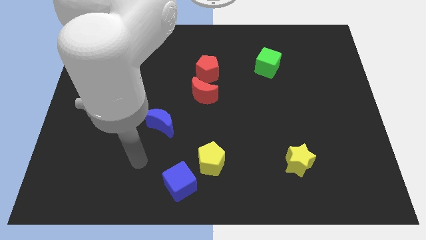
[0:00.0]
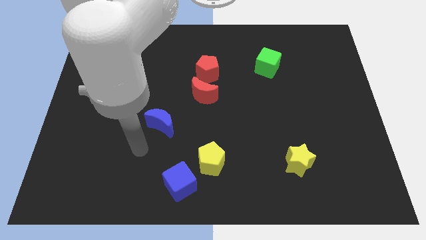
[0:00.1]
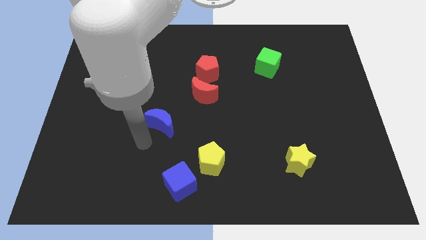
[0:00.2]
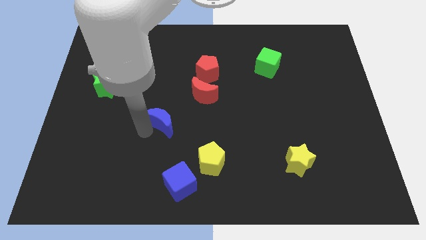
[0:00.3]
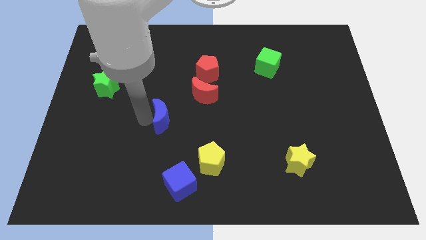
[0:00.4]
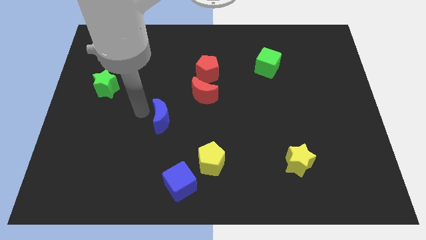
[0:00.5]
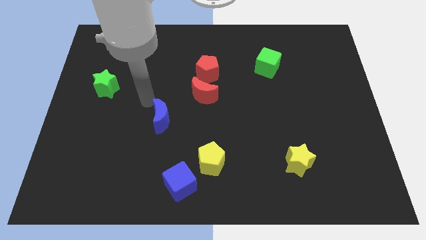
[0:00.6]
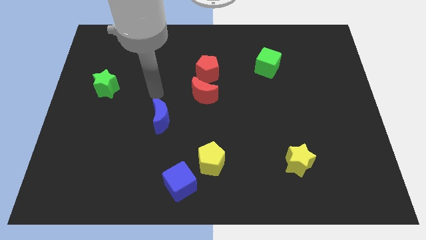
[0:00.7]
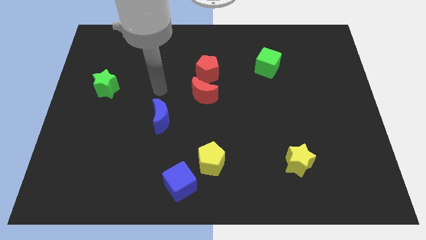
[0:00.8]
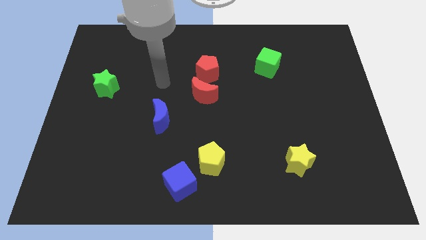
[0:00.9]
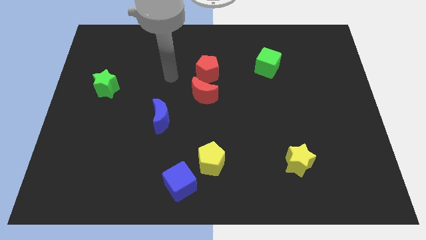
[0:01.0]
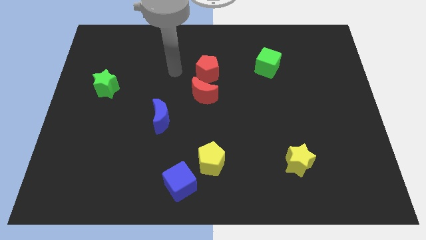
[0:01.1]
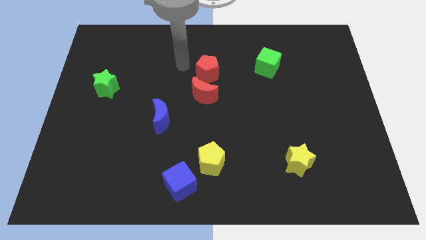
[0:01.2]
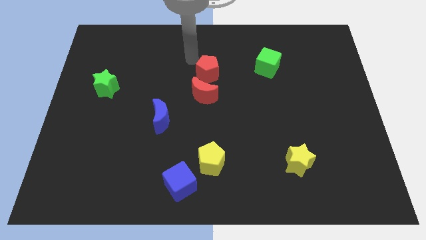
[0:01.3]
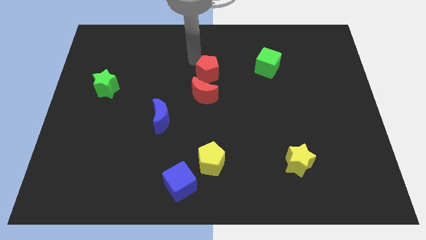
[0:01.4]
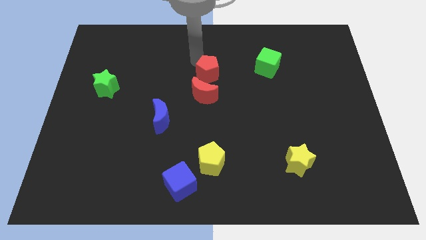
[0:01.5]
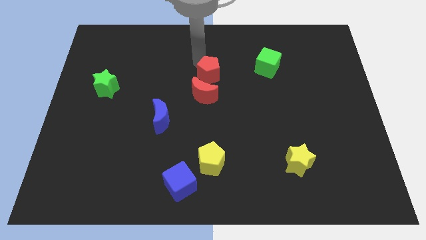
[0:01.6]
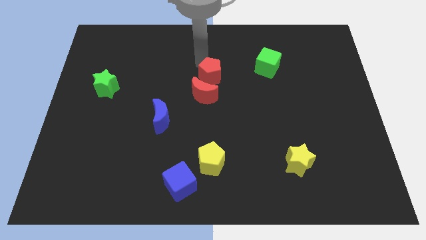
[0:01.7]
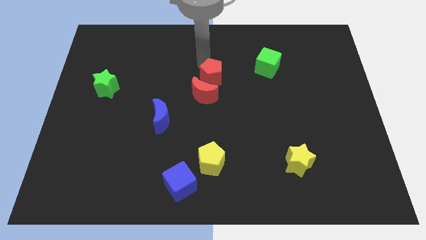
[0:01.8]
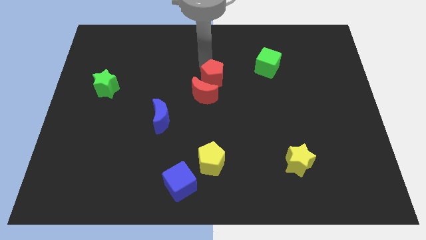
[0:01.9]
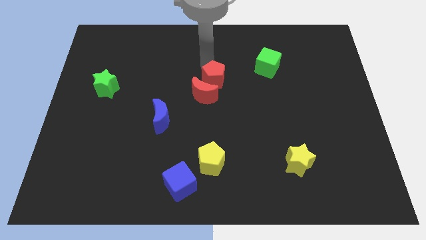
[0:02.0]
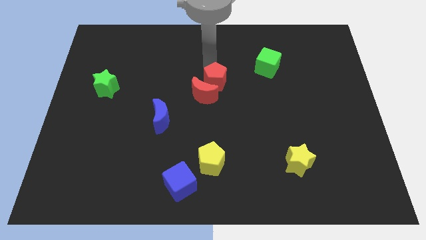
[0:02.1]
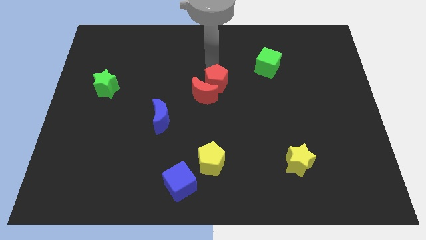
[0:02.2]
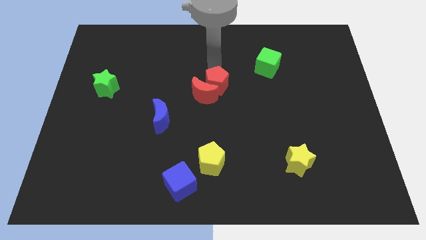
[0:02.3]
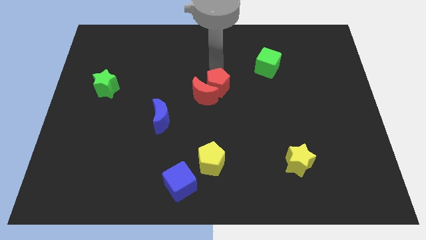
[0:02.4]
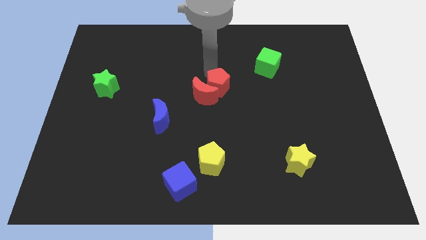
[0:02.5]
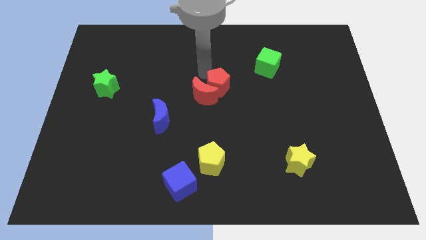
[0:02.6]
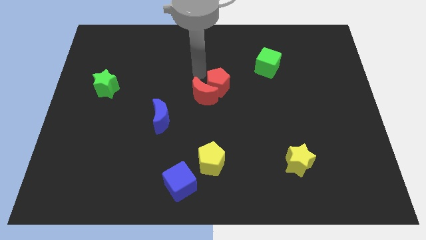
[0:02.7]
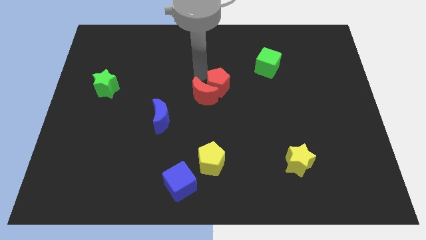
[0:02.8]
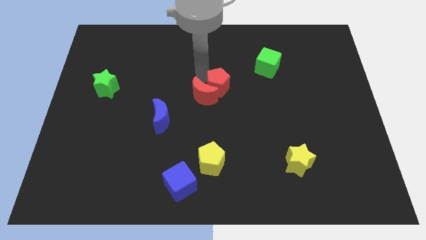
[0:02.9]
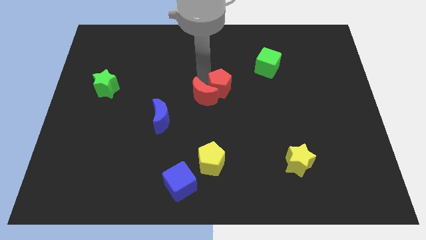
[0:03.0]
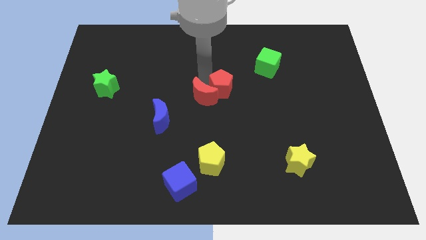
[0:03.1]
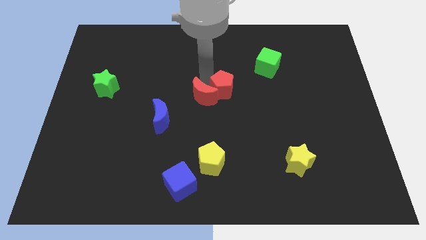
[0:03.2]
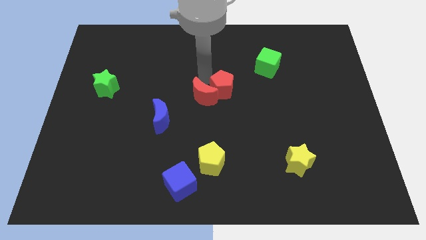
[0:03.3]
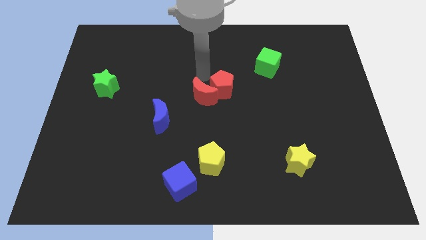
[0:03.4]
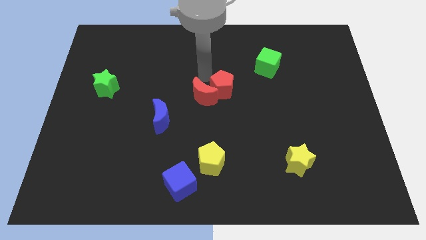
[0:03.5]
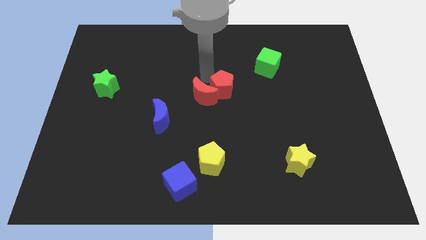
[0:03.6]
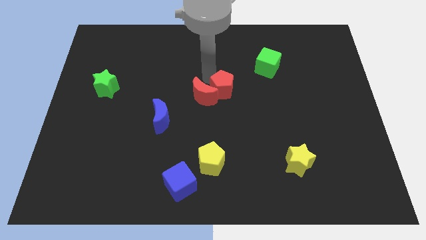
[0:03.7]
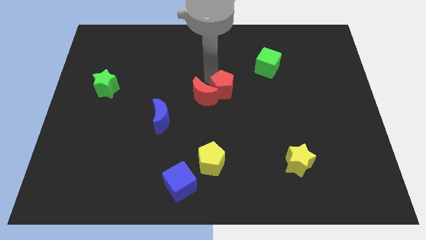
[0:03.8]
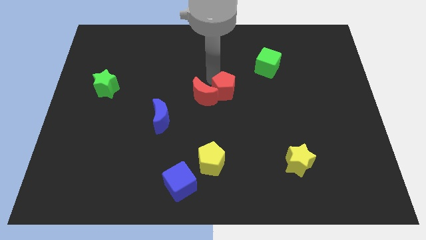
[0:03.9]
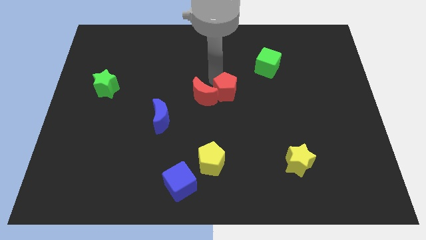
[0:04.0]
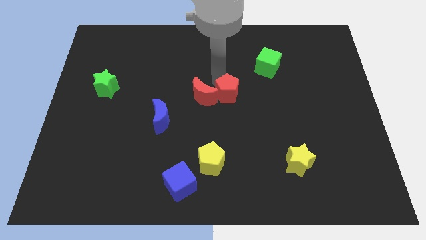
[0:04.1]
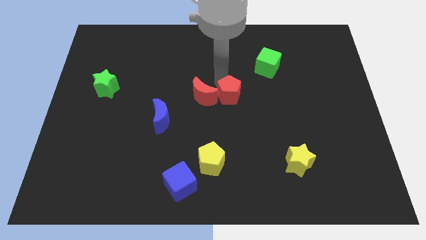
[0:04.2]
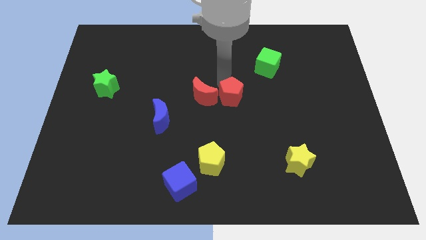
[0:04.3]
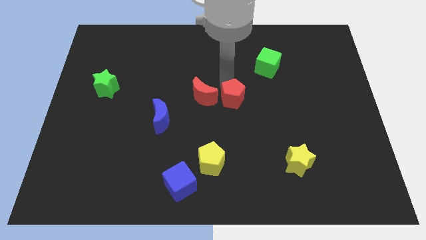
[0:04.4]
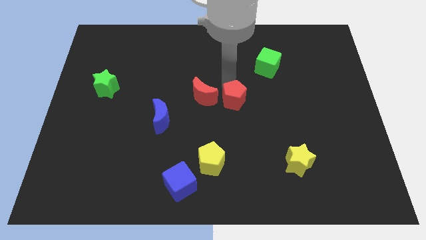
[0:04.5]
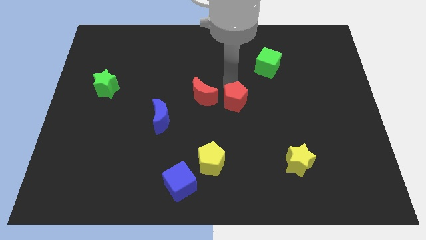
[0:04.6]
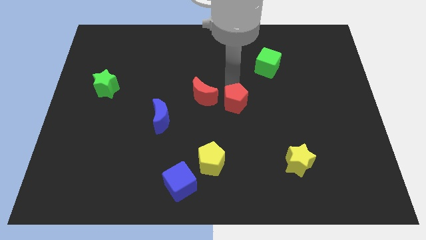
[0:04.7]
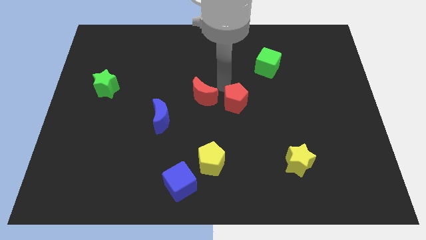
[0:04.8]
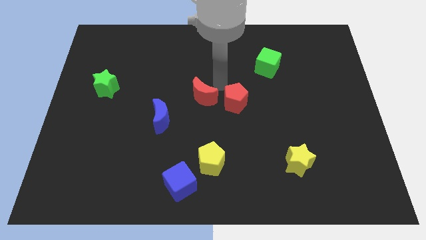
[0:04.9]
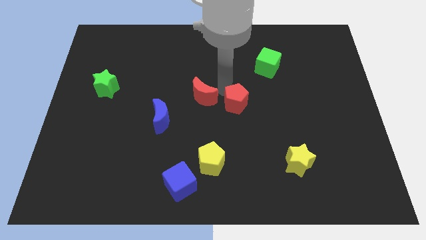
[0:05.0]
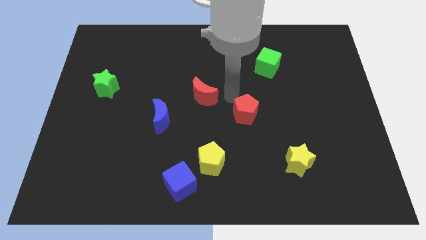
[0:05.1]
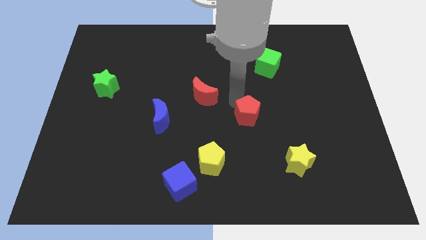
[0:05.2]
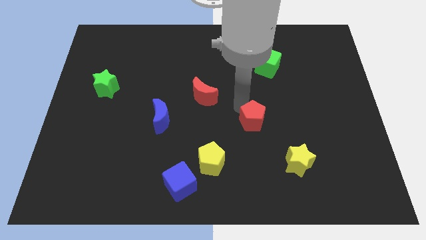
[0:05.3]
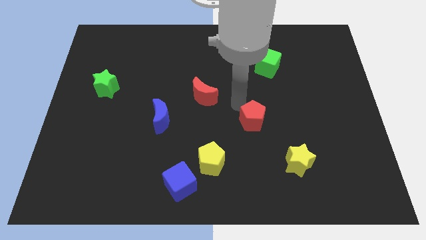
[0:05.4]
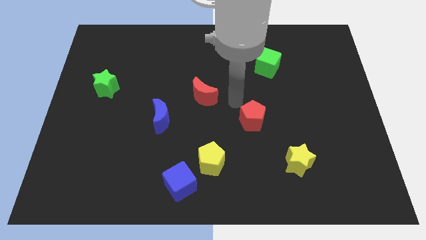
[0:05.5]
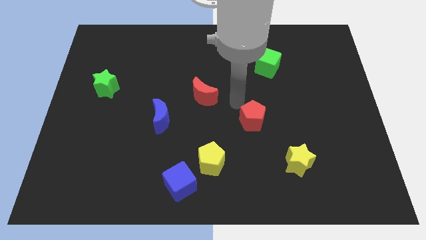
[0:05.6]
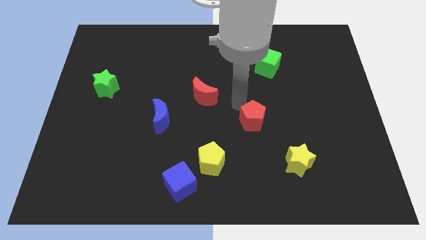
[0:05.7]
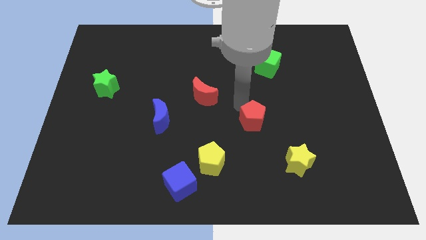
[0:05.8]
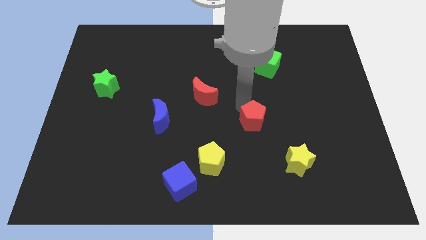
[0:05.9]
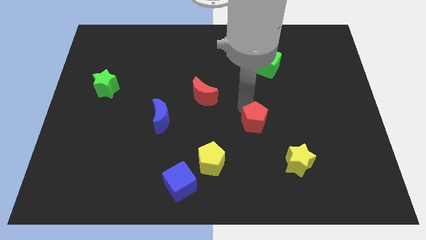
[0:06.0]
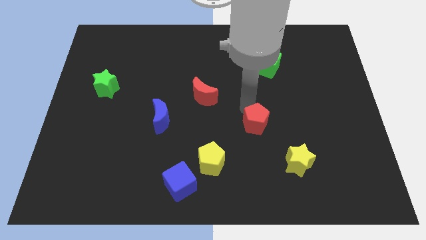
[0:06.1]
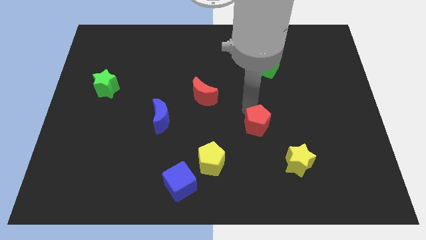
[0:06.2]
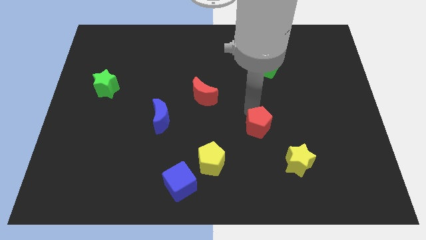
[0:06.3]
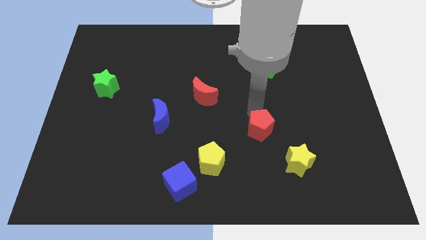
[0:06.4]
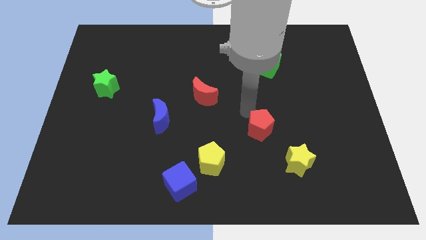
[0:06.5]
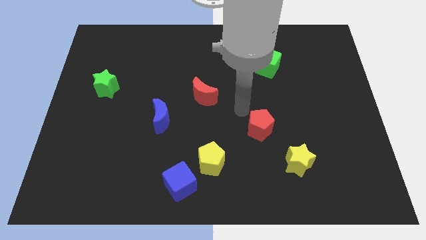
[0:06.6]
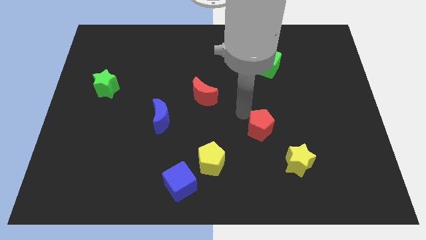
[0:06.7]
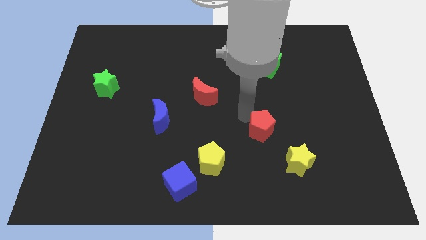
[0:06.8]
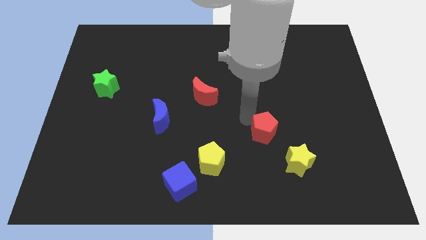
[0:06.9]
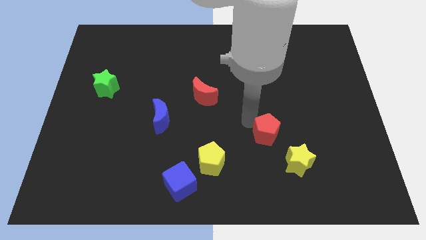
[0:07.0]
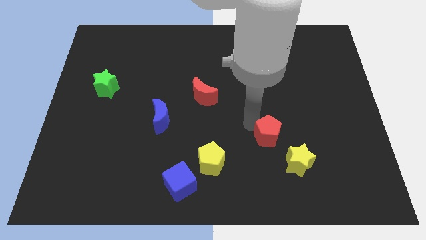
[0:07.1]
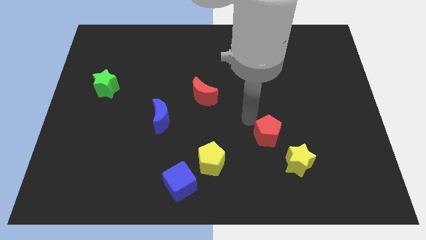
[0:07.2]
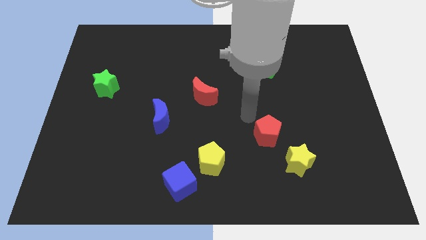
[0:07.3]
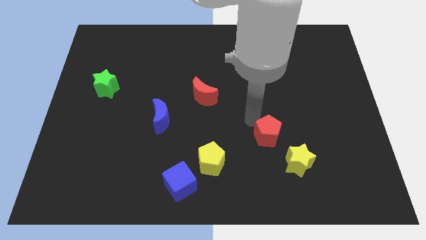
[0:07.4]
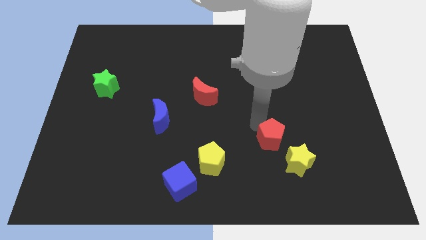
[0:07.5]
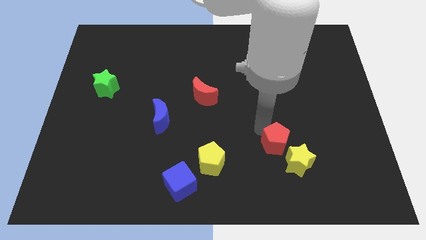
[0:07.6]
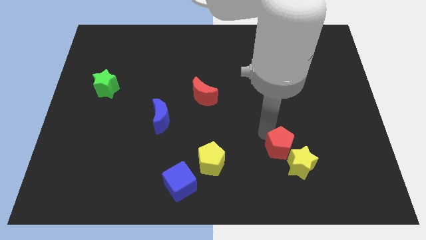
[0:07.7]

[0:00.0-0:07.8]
slide the red pentagon next to the yellow star
